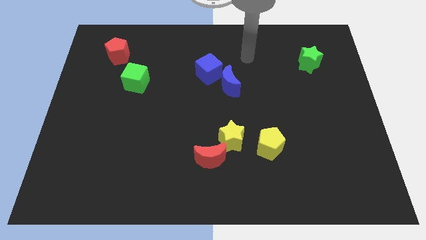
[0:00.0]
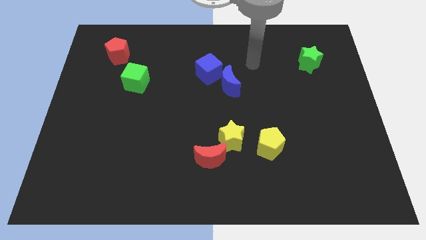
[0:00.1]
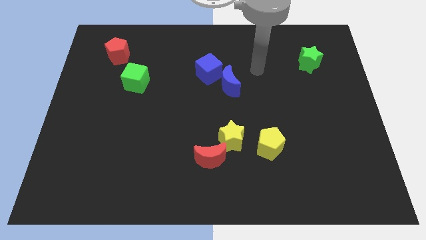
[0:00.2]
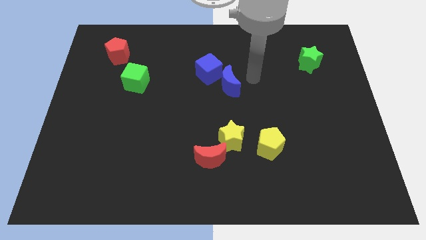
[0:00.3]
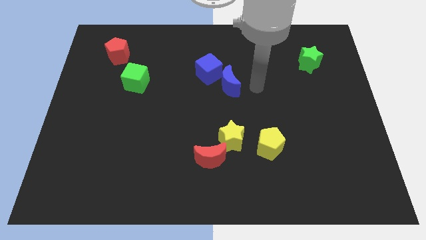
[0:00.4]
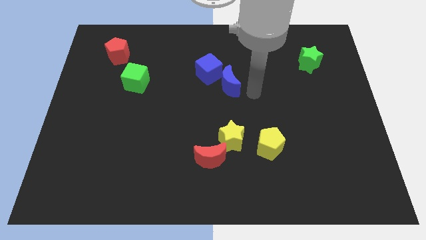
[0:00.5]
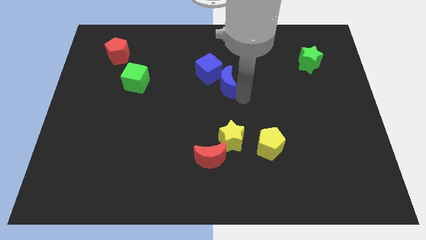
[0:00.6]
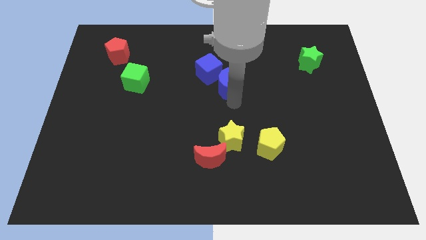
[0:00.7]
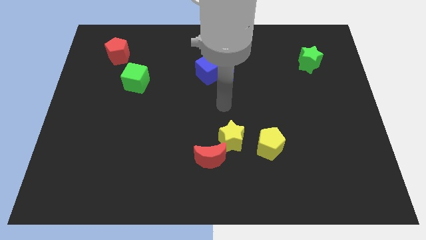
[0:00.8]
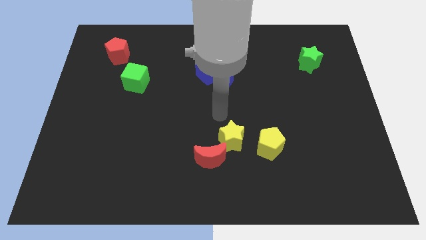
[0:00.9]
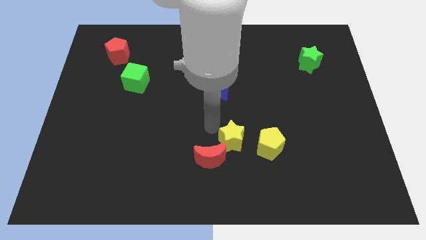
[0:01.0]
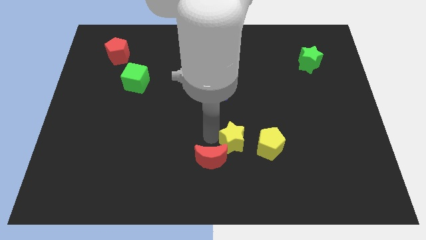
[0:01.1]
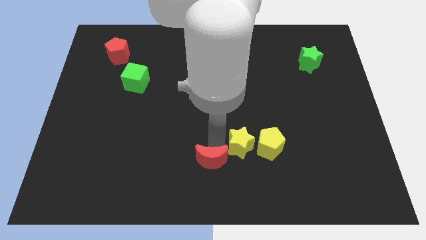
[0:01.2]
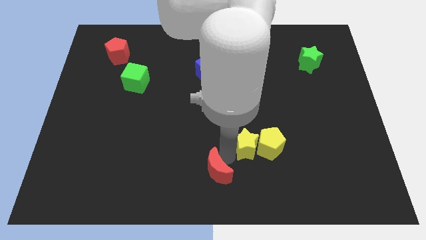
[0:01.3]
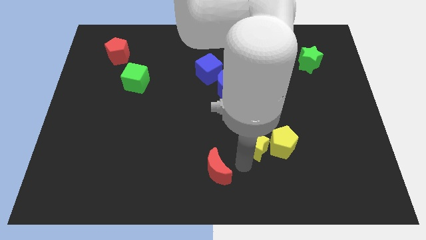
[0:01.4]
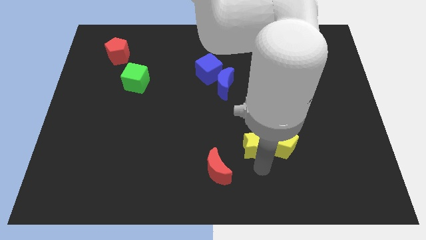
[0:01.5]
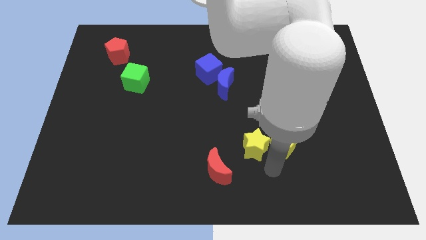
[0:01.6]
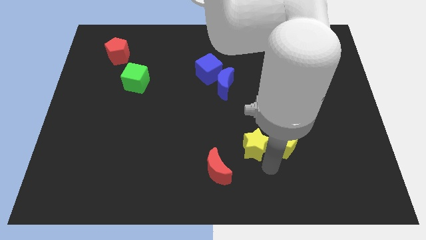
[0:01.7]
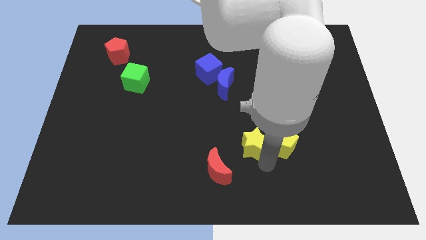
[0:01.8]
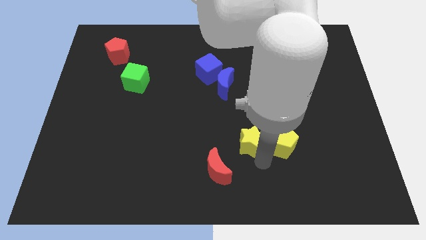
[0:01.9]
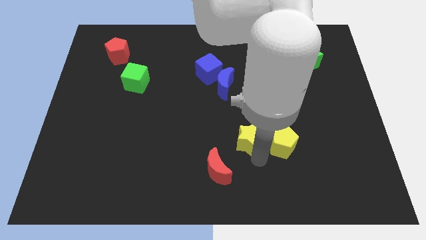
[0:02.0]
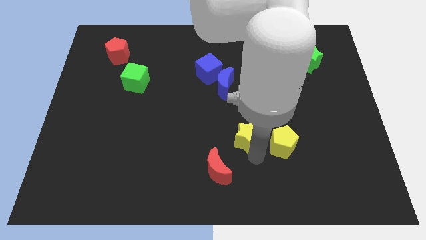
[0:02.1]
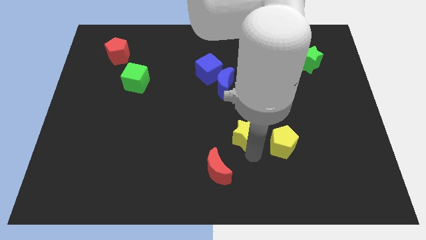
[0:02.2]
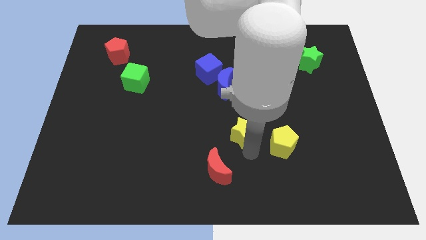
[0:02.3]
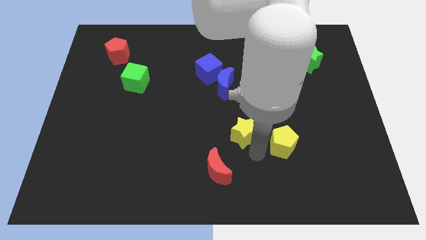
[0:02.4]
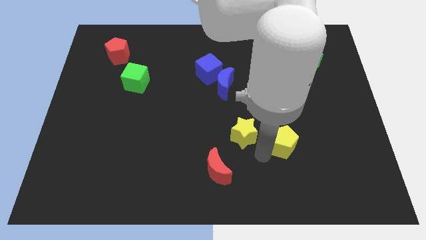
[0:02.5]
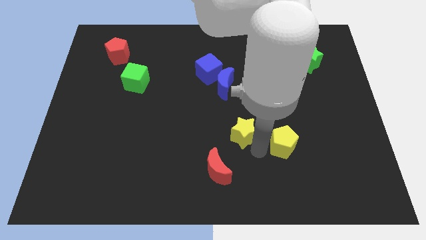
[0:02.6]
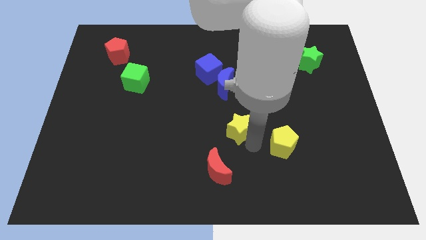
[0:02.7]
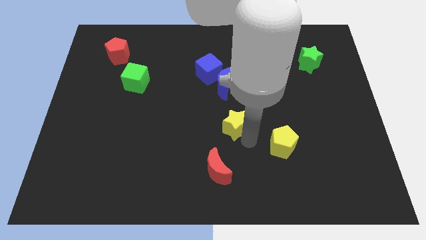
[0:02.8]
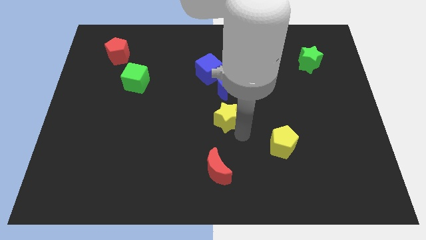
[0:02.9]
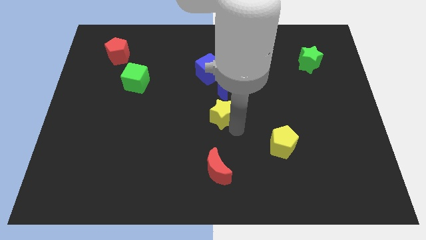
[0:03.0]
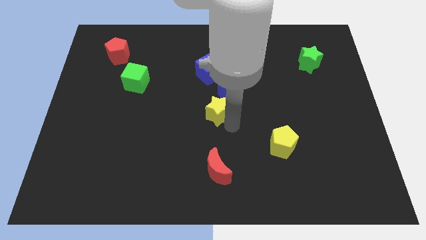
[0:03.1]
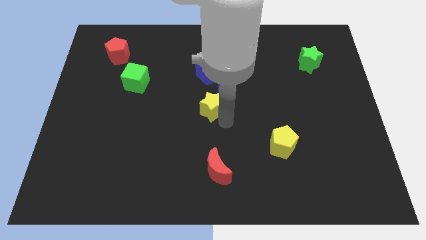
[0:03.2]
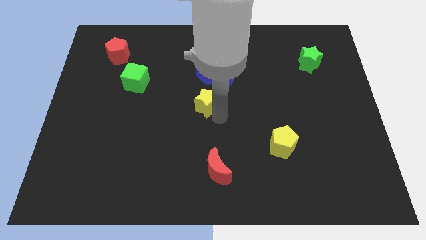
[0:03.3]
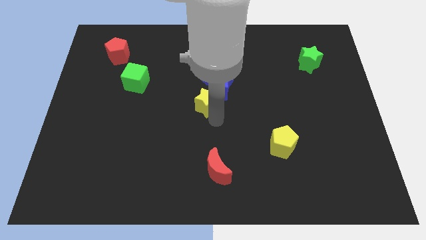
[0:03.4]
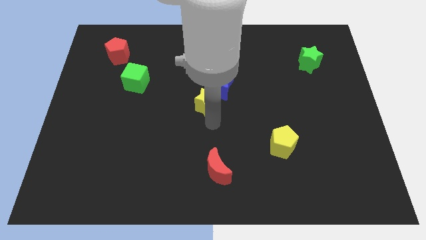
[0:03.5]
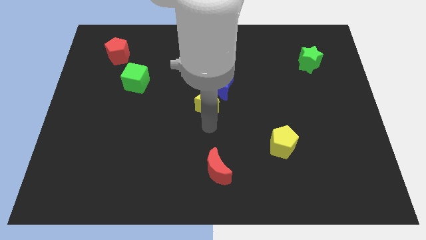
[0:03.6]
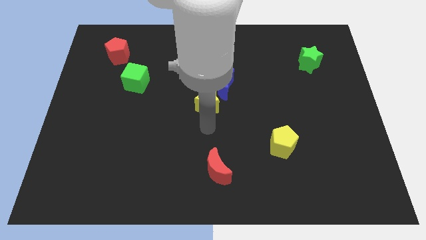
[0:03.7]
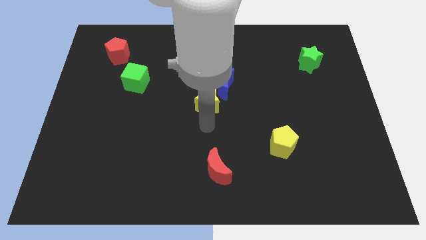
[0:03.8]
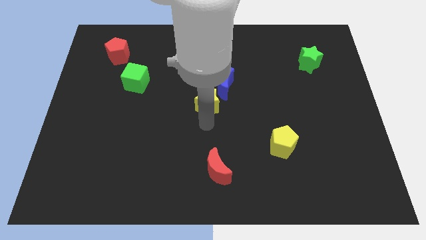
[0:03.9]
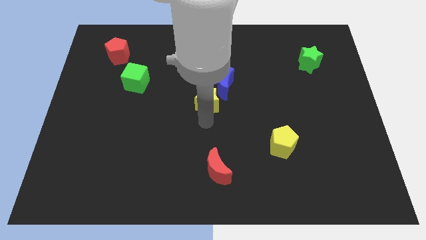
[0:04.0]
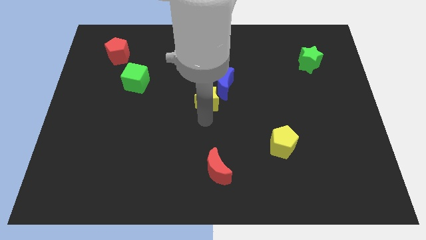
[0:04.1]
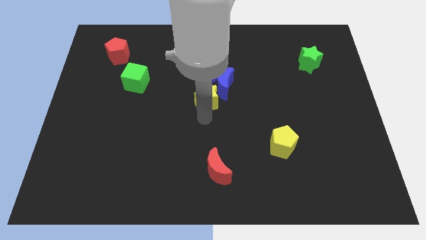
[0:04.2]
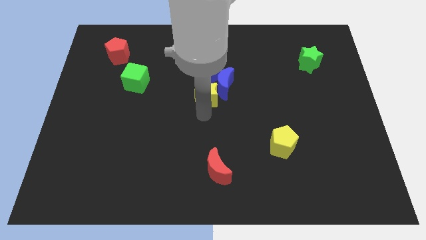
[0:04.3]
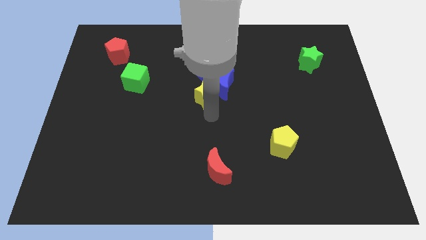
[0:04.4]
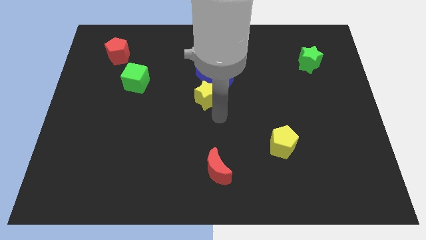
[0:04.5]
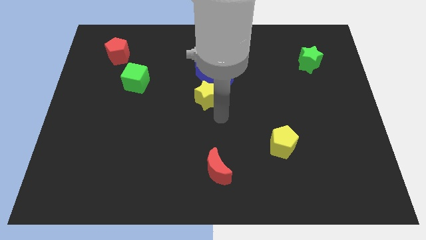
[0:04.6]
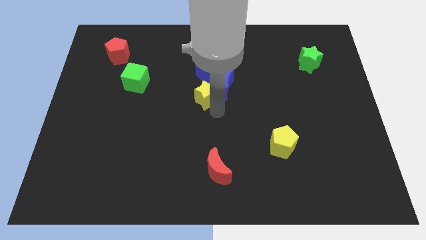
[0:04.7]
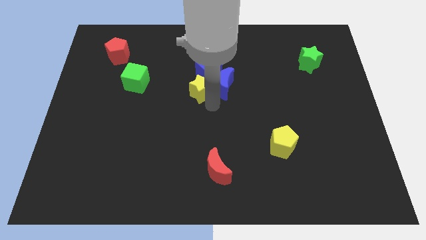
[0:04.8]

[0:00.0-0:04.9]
move the yellow star diagonally up and to the left of the blue moon

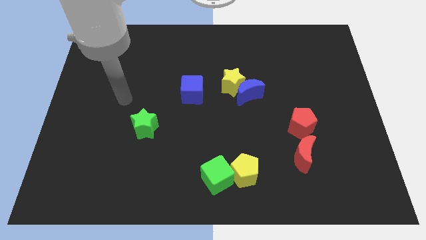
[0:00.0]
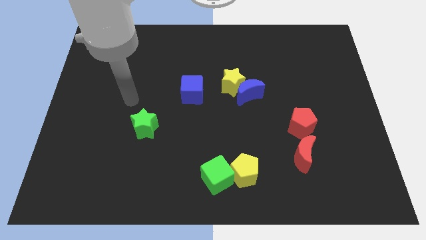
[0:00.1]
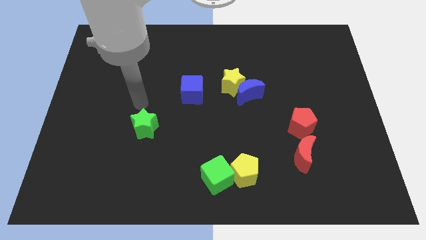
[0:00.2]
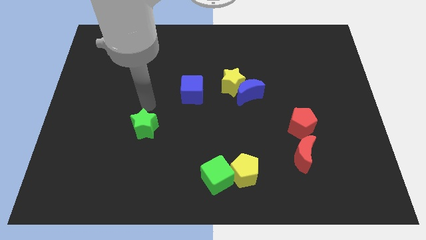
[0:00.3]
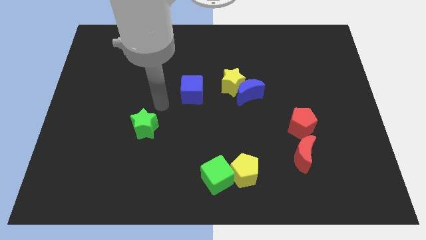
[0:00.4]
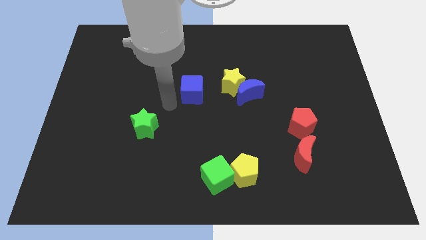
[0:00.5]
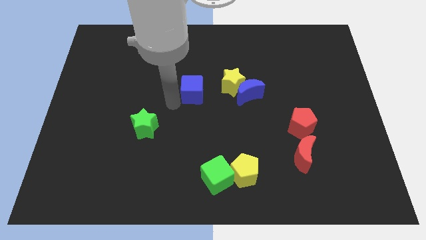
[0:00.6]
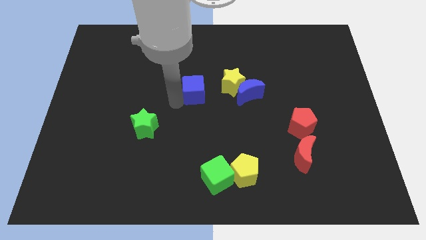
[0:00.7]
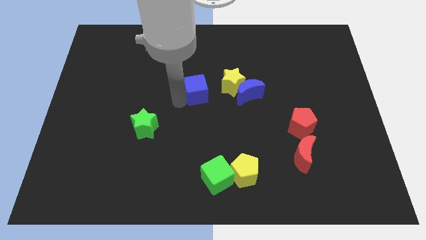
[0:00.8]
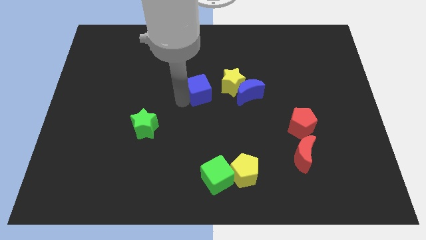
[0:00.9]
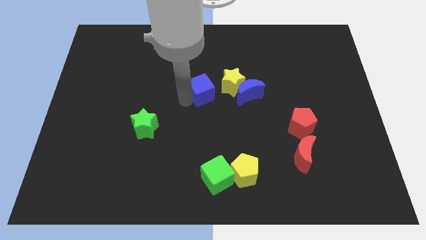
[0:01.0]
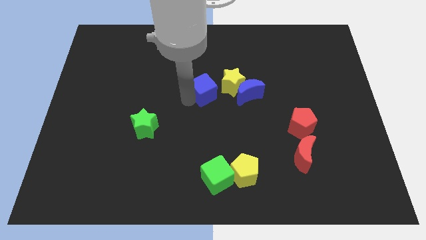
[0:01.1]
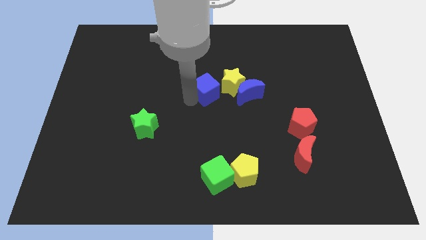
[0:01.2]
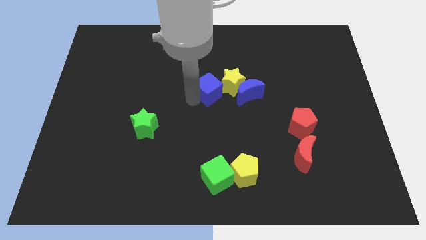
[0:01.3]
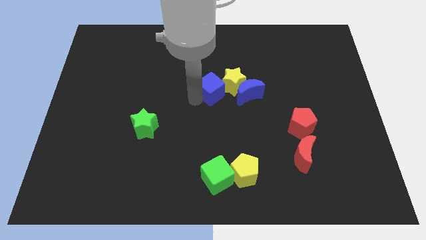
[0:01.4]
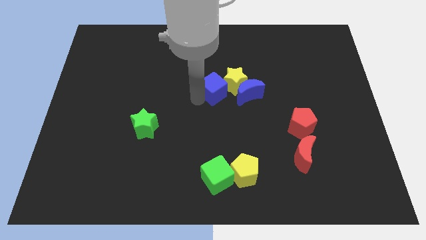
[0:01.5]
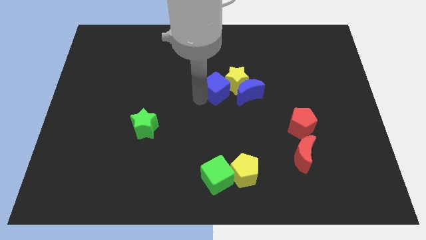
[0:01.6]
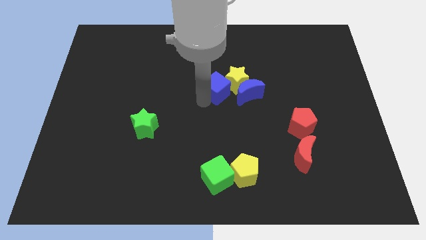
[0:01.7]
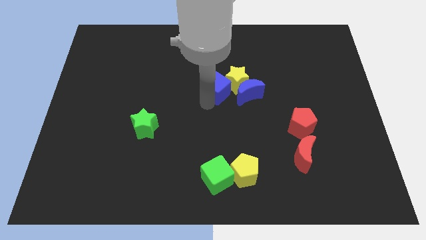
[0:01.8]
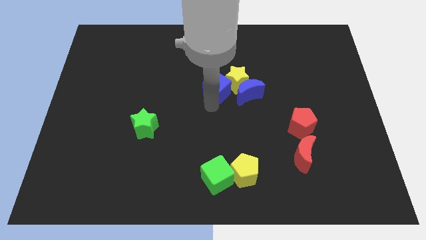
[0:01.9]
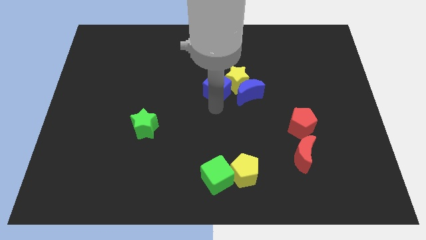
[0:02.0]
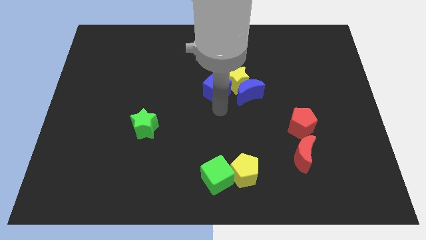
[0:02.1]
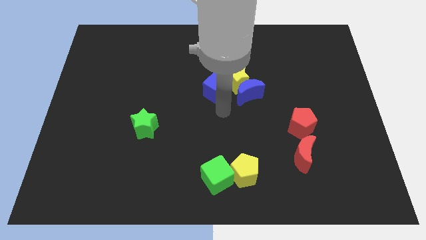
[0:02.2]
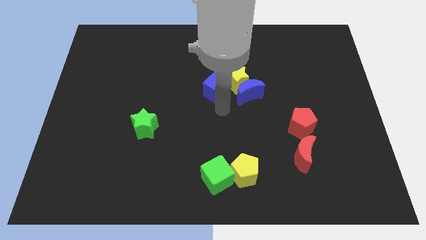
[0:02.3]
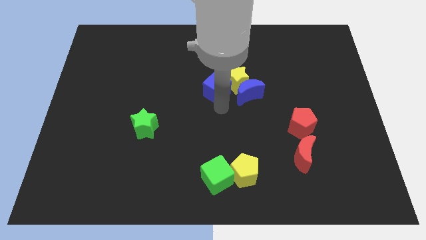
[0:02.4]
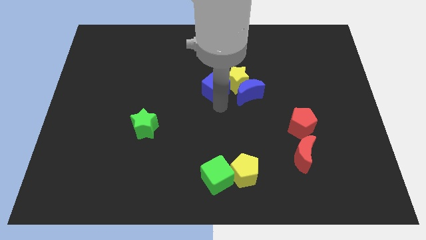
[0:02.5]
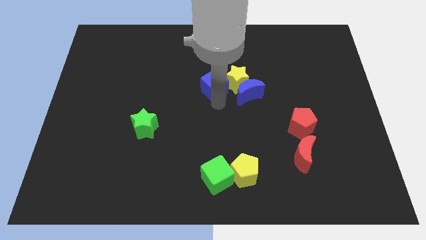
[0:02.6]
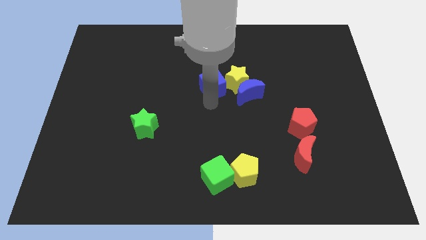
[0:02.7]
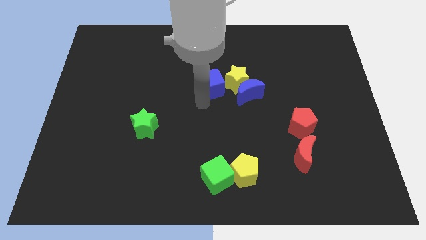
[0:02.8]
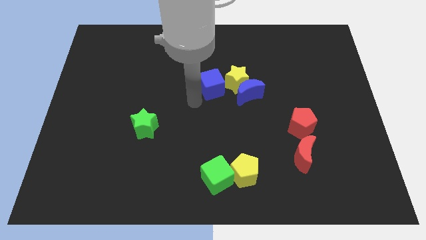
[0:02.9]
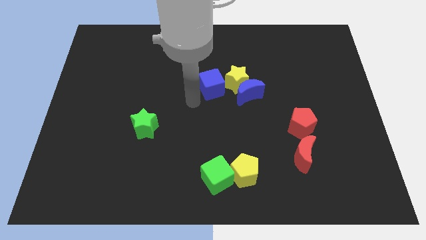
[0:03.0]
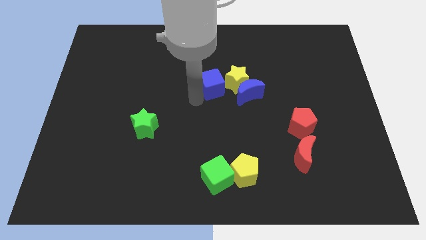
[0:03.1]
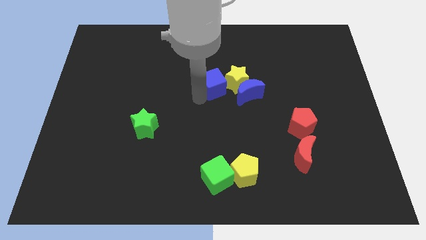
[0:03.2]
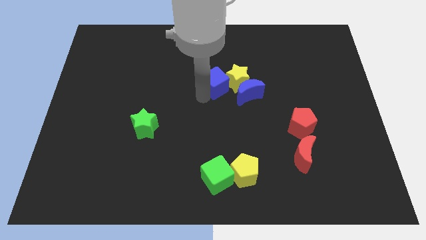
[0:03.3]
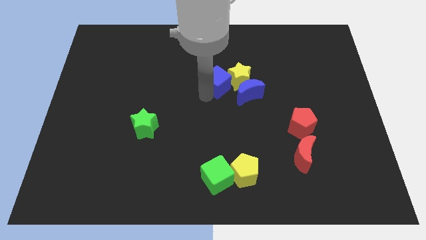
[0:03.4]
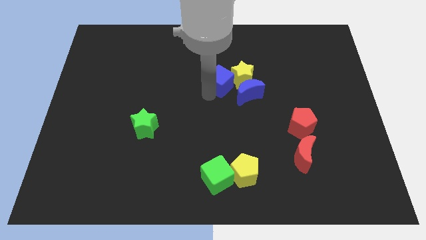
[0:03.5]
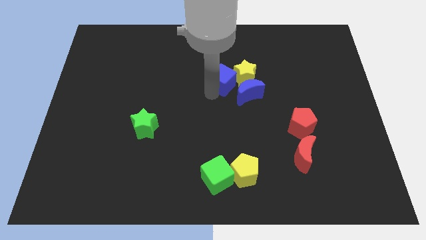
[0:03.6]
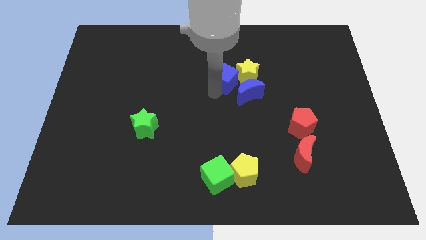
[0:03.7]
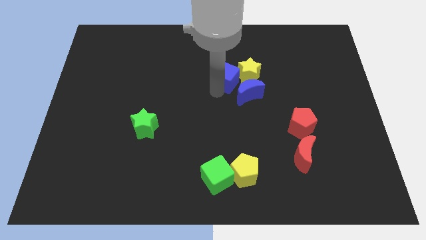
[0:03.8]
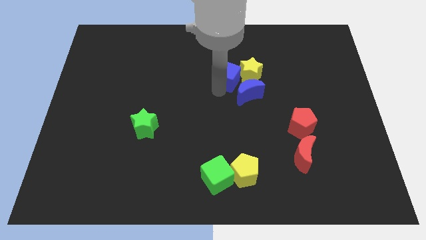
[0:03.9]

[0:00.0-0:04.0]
push the blue cube to the top side of the blue moon
